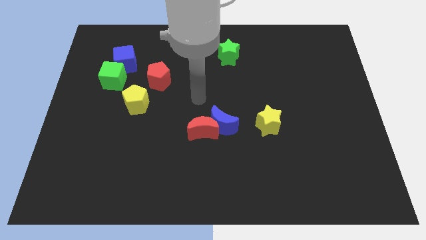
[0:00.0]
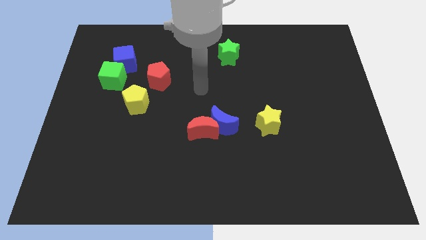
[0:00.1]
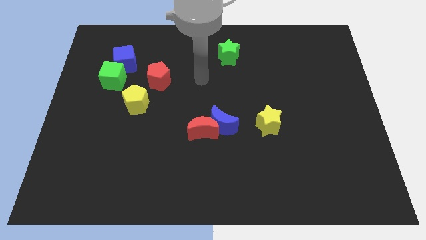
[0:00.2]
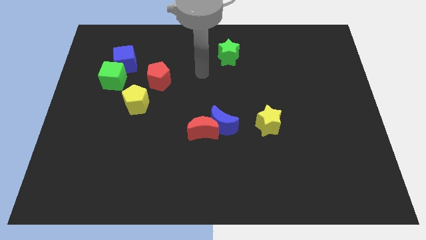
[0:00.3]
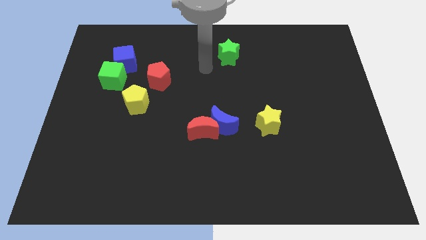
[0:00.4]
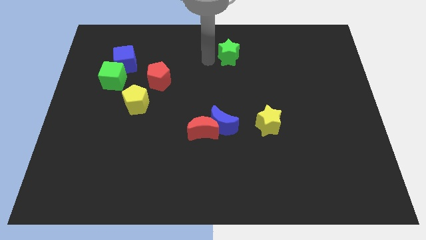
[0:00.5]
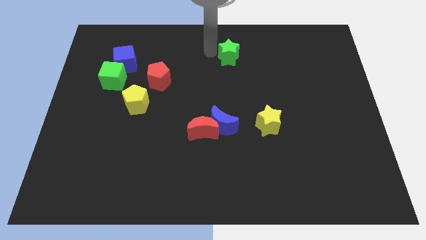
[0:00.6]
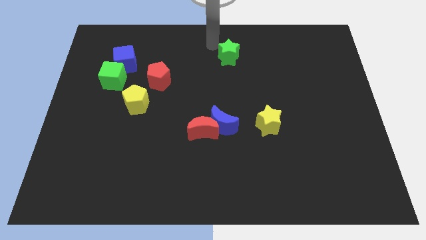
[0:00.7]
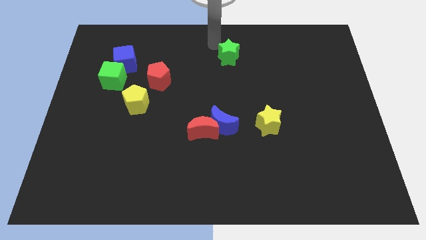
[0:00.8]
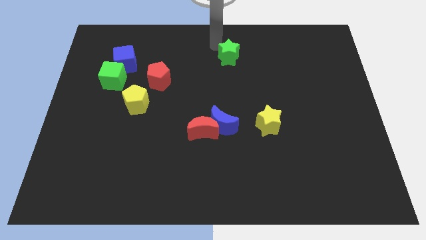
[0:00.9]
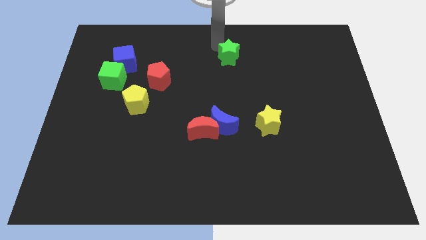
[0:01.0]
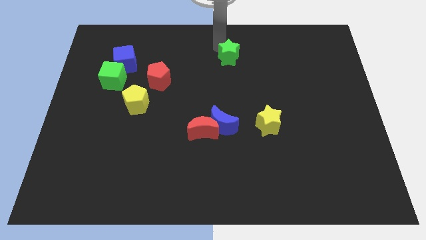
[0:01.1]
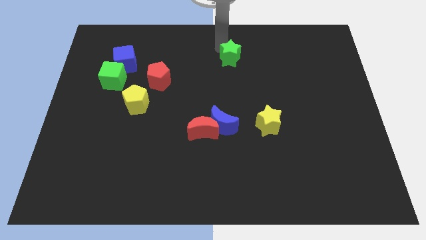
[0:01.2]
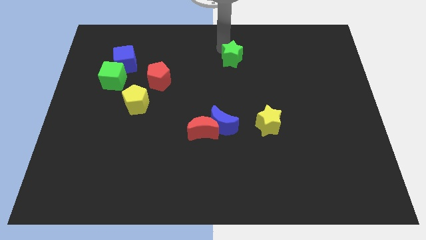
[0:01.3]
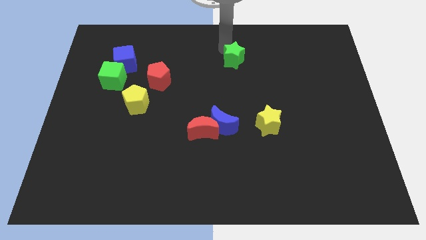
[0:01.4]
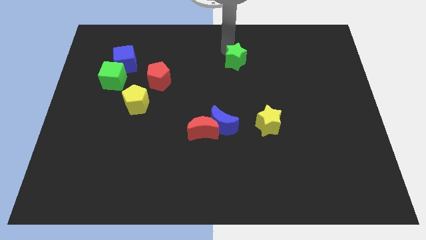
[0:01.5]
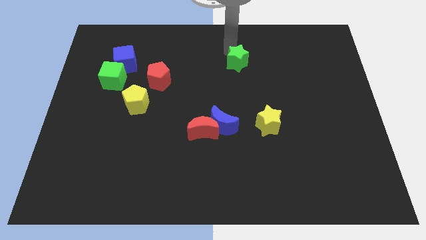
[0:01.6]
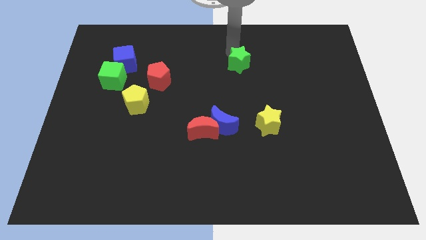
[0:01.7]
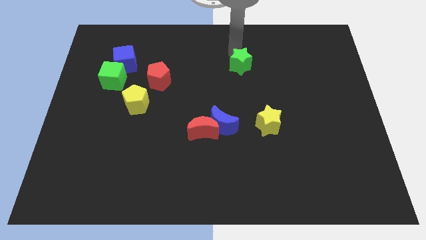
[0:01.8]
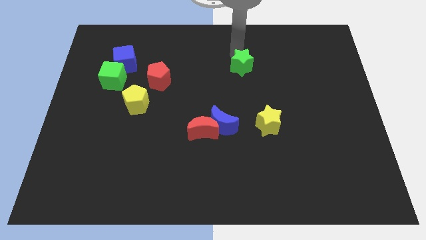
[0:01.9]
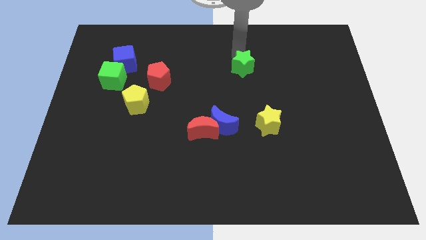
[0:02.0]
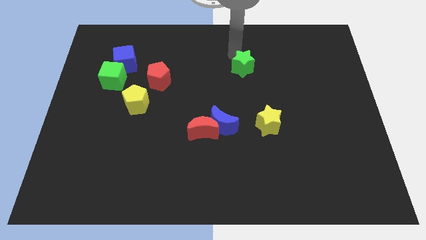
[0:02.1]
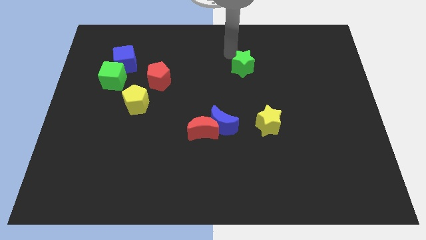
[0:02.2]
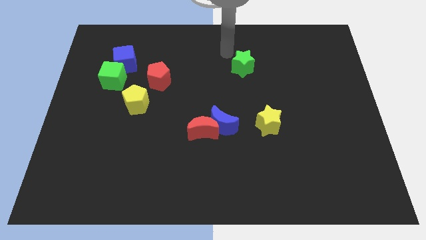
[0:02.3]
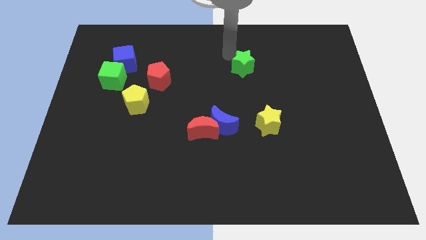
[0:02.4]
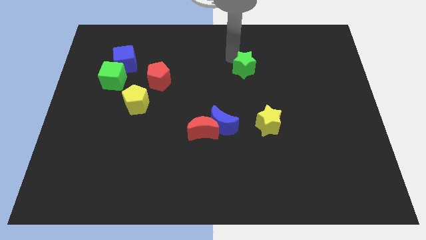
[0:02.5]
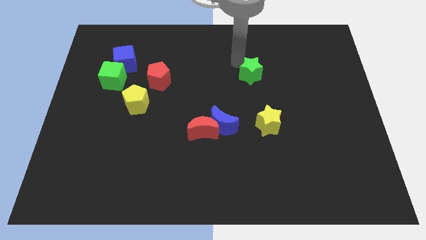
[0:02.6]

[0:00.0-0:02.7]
push the green star slightly downwards and right

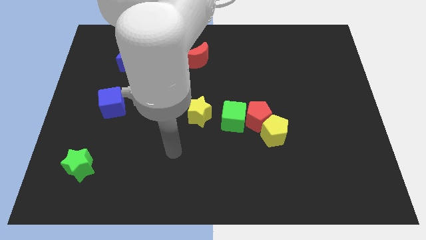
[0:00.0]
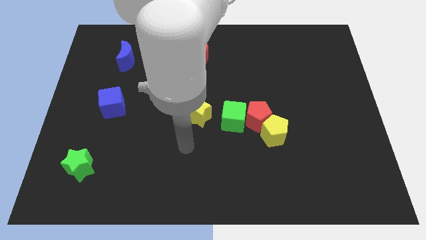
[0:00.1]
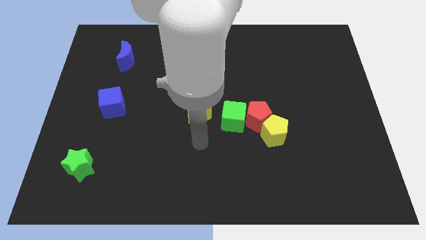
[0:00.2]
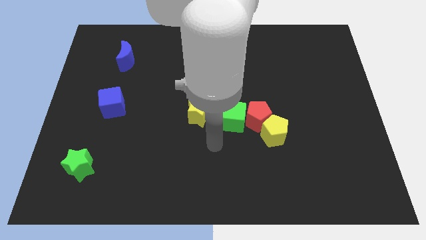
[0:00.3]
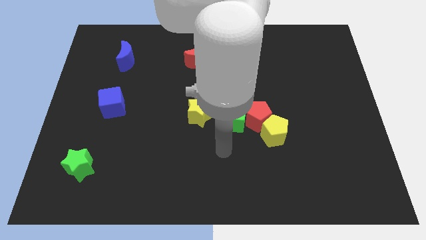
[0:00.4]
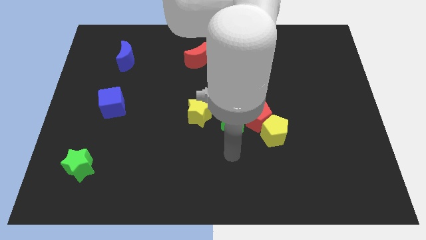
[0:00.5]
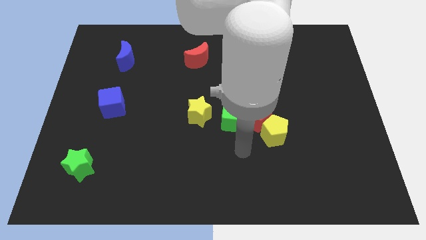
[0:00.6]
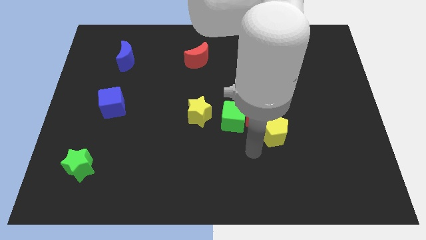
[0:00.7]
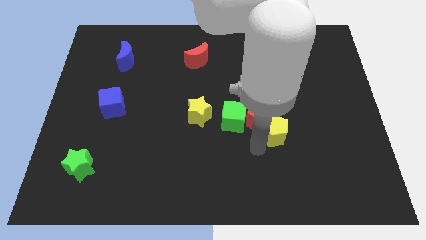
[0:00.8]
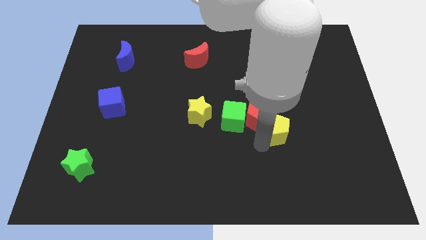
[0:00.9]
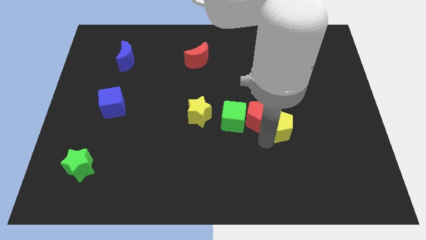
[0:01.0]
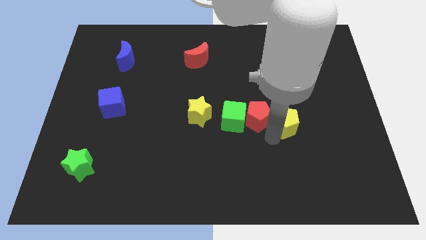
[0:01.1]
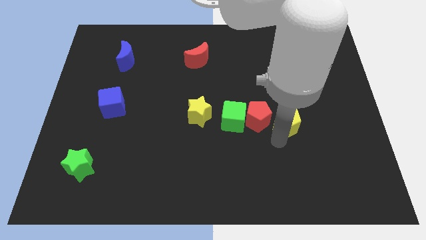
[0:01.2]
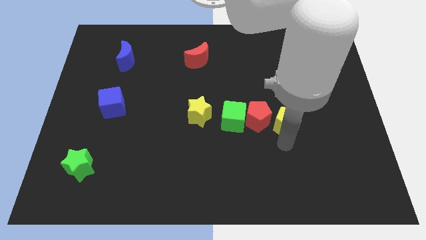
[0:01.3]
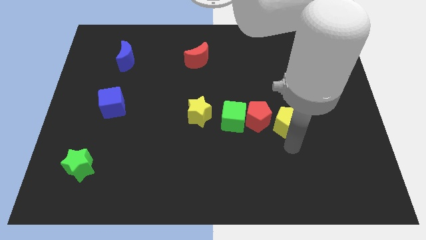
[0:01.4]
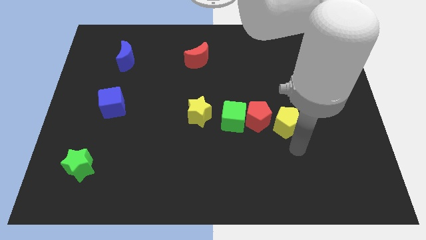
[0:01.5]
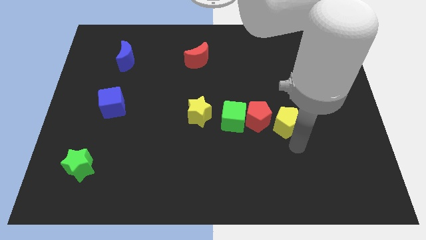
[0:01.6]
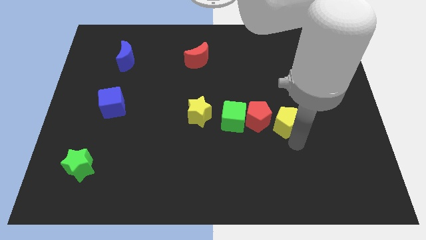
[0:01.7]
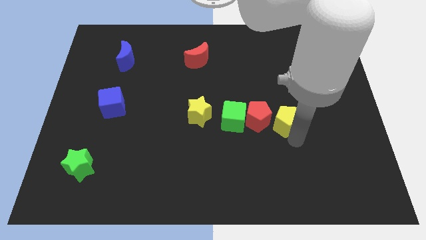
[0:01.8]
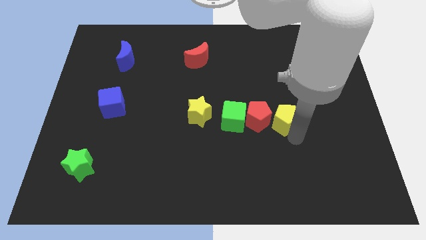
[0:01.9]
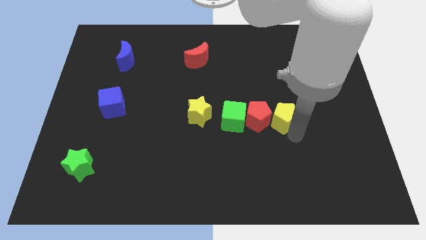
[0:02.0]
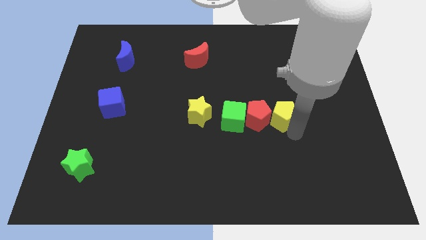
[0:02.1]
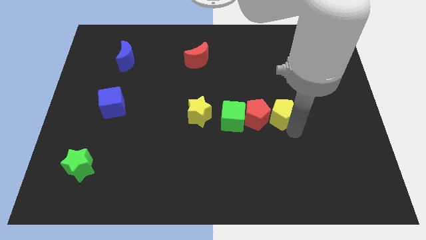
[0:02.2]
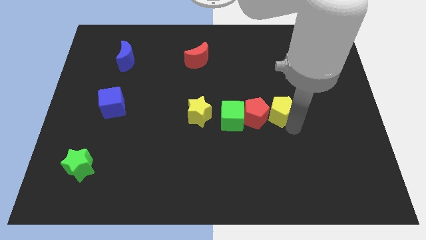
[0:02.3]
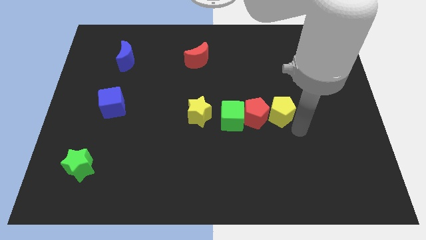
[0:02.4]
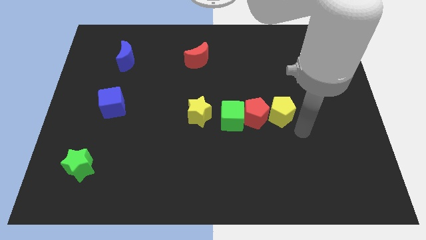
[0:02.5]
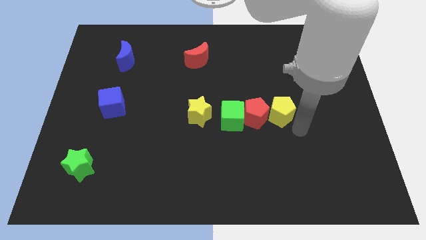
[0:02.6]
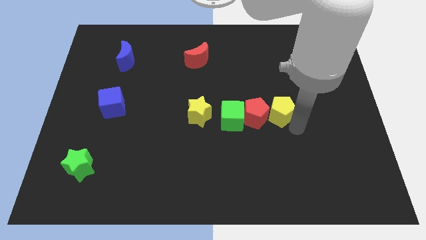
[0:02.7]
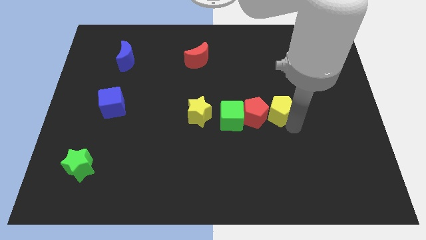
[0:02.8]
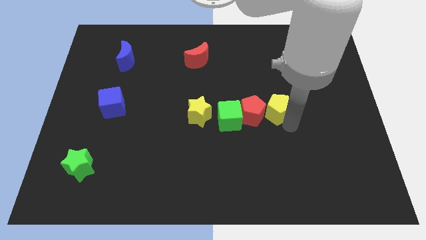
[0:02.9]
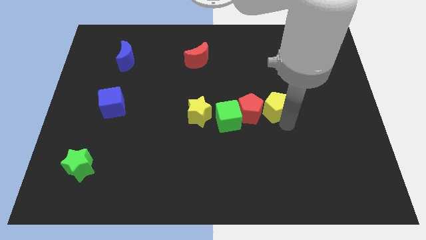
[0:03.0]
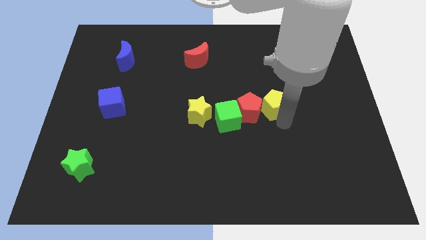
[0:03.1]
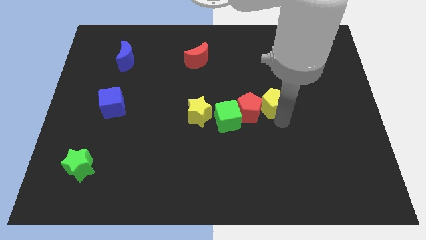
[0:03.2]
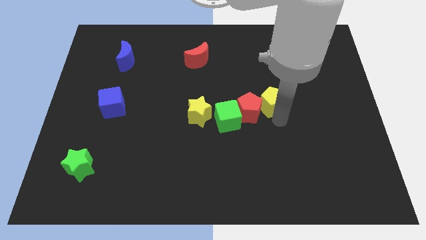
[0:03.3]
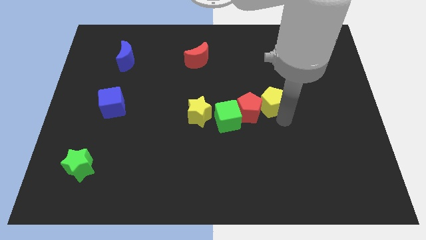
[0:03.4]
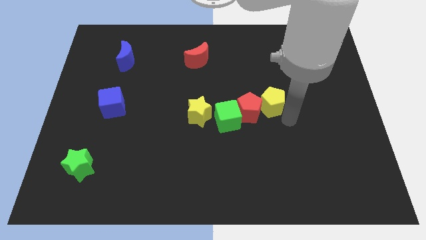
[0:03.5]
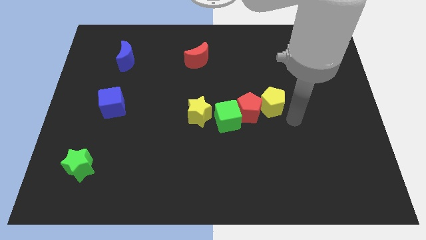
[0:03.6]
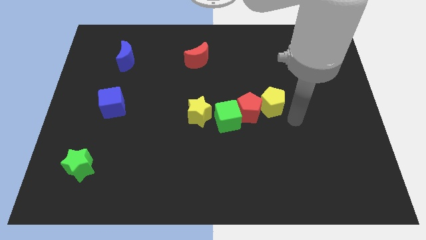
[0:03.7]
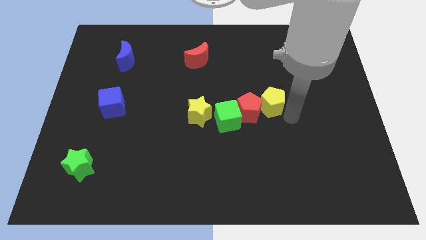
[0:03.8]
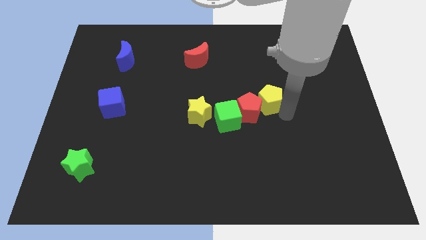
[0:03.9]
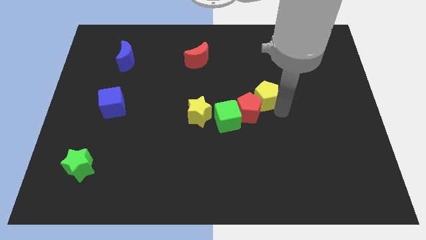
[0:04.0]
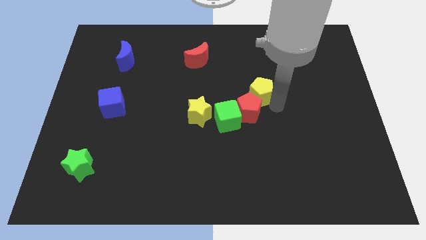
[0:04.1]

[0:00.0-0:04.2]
push the yellow pentagon slightly up and to the left diagonally

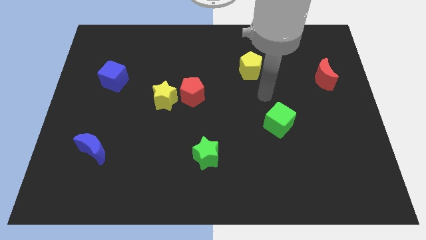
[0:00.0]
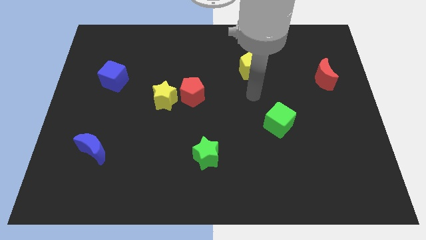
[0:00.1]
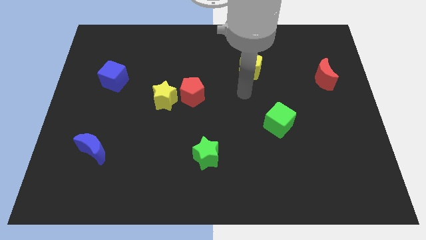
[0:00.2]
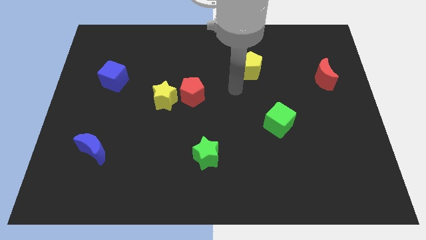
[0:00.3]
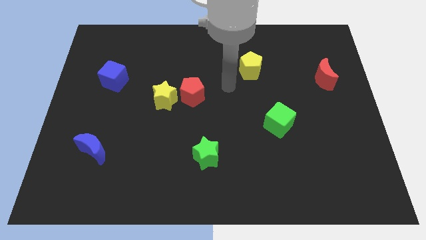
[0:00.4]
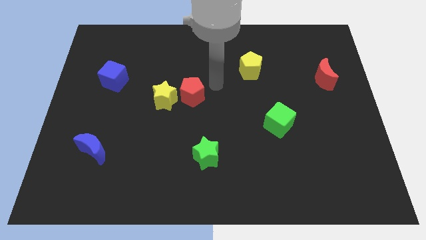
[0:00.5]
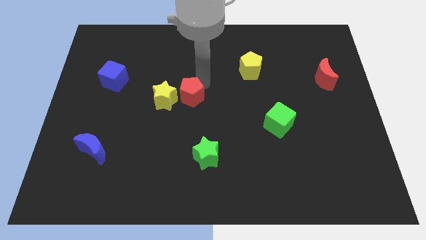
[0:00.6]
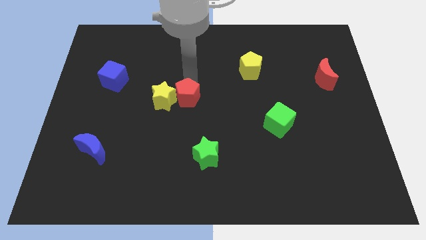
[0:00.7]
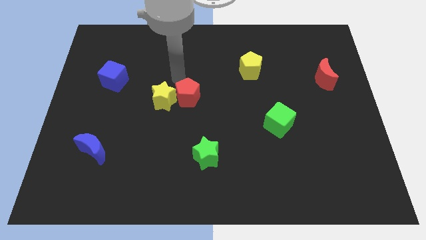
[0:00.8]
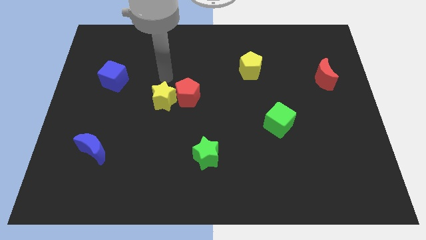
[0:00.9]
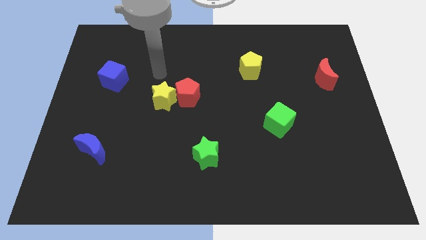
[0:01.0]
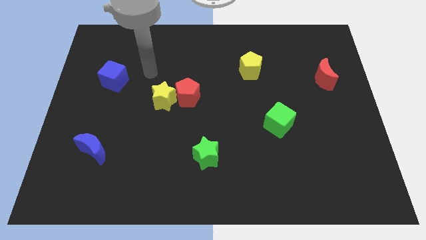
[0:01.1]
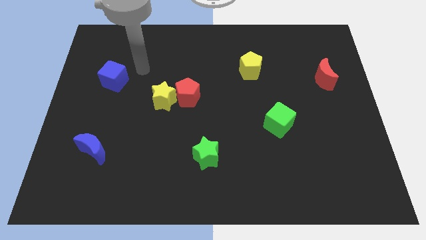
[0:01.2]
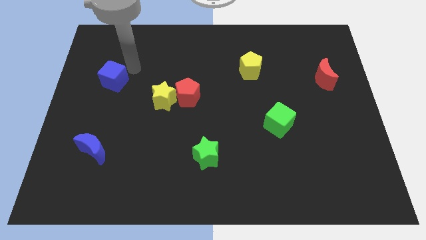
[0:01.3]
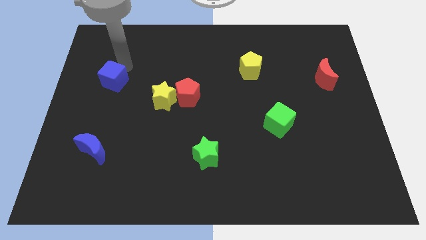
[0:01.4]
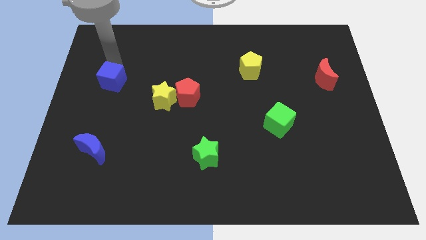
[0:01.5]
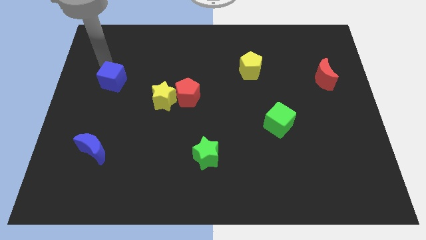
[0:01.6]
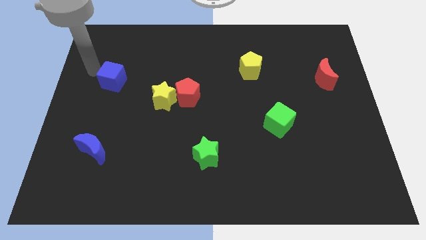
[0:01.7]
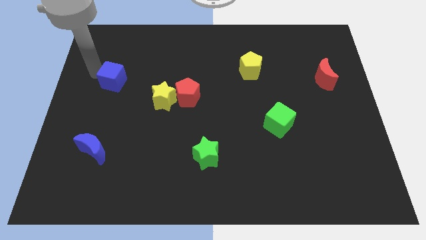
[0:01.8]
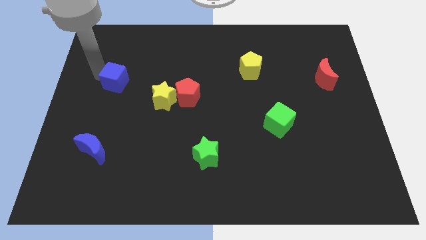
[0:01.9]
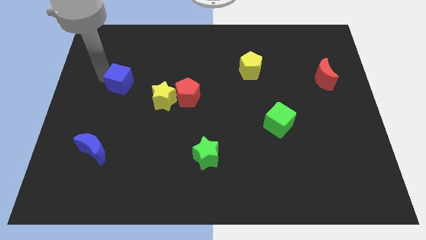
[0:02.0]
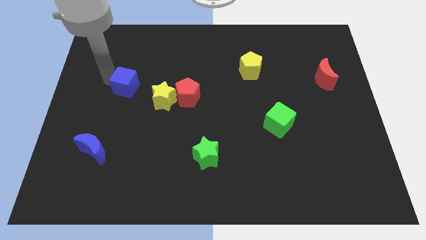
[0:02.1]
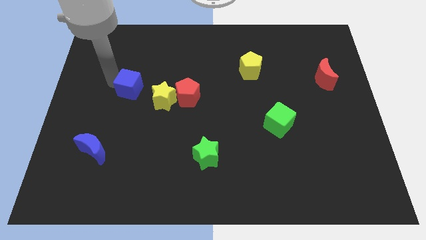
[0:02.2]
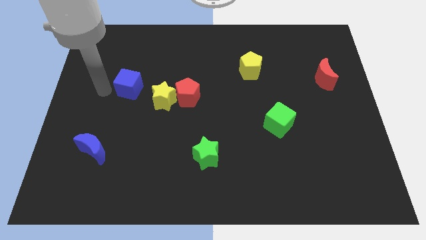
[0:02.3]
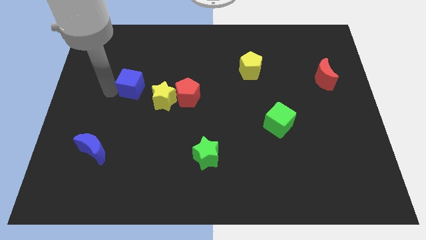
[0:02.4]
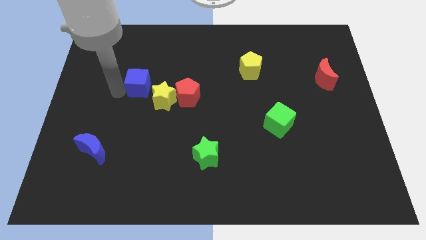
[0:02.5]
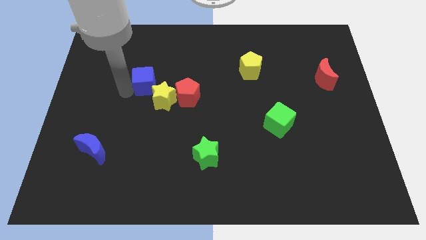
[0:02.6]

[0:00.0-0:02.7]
slightly slide the blue cube to the right
